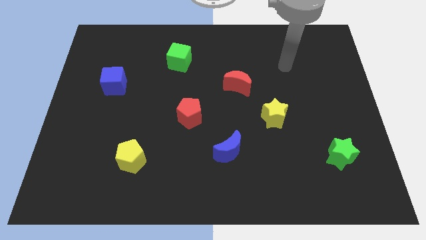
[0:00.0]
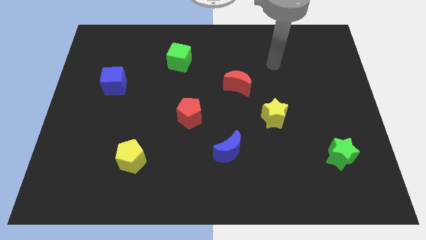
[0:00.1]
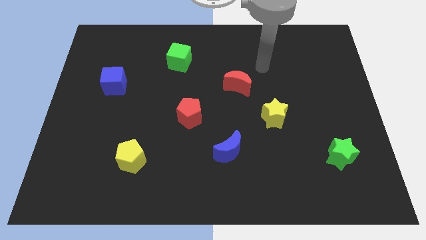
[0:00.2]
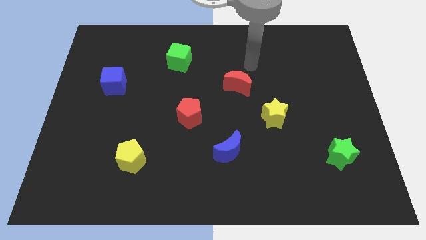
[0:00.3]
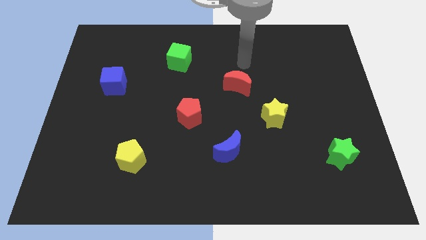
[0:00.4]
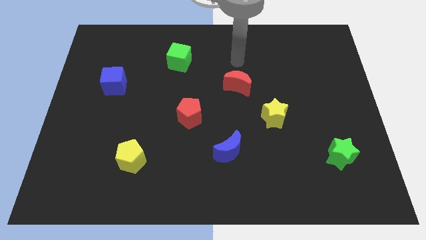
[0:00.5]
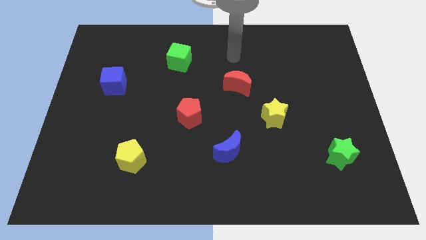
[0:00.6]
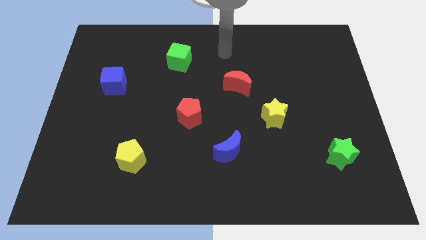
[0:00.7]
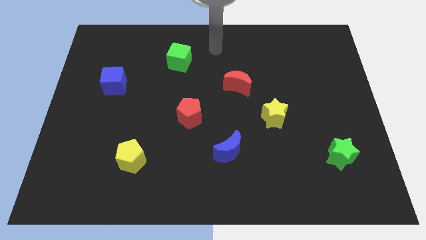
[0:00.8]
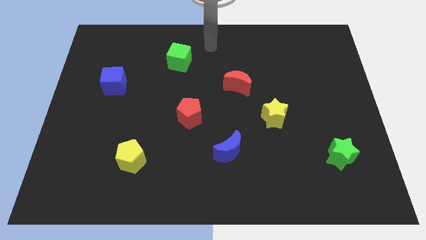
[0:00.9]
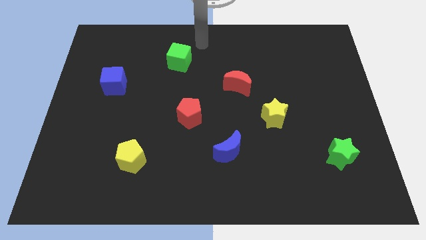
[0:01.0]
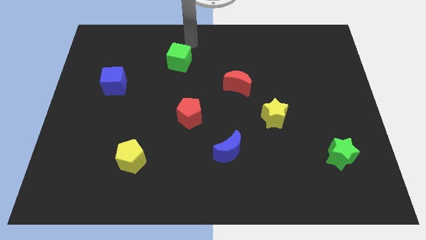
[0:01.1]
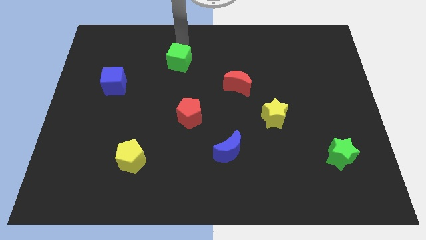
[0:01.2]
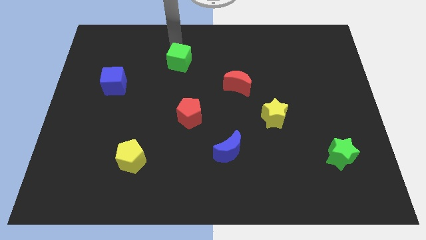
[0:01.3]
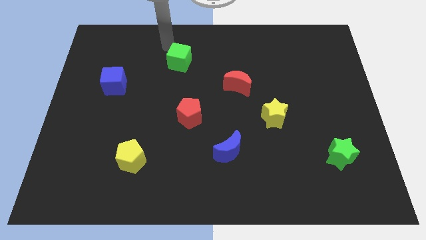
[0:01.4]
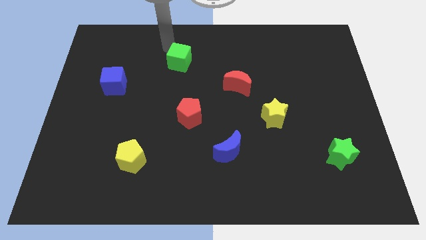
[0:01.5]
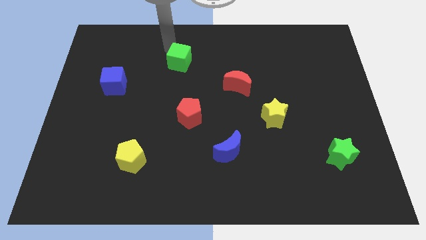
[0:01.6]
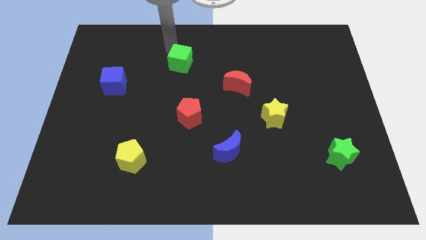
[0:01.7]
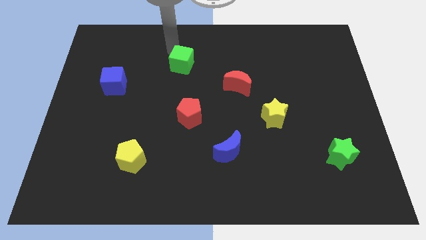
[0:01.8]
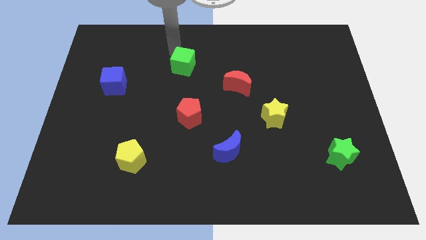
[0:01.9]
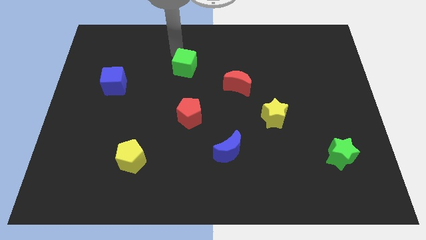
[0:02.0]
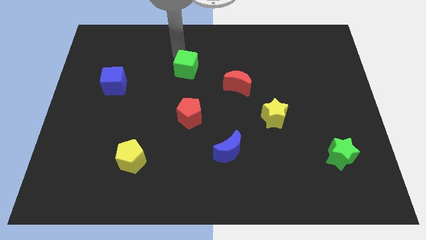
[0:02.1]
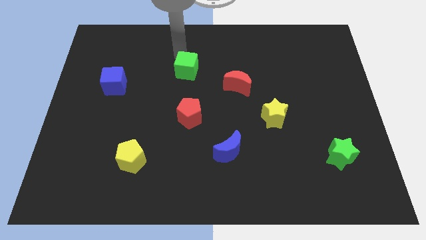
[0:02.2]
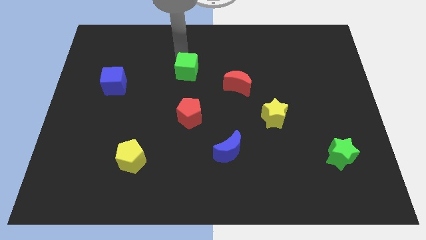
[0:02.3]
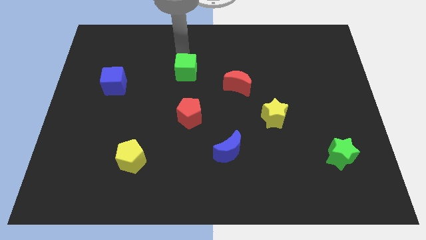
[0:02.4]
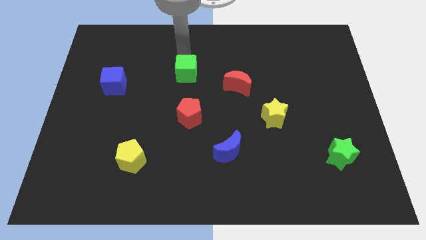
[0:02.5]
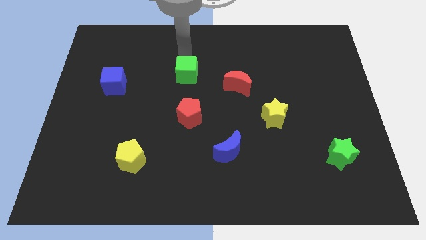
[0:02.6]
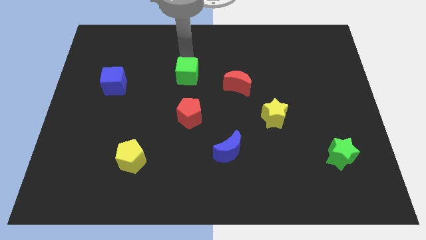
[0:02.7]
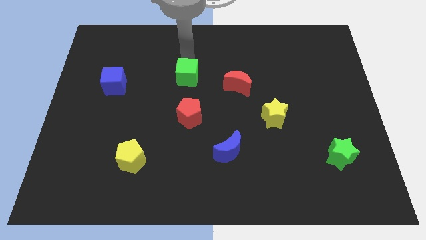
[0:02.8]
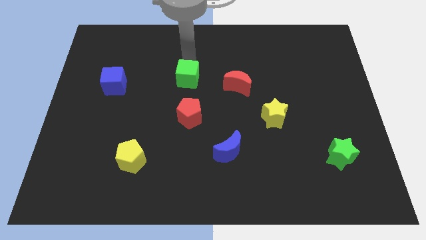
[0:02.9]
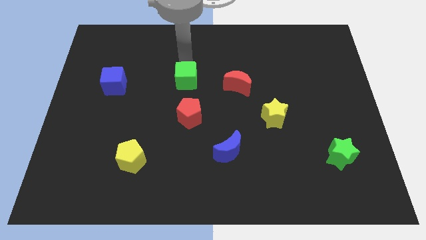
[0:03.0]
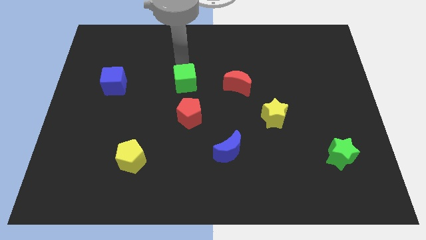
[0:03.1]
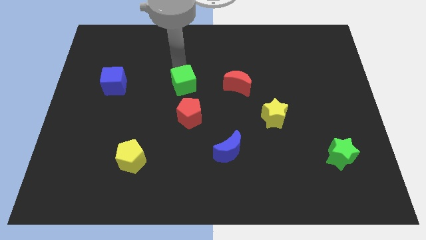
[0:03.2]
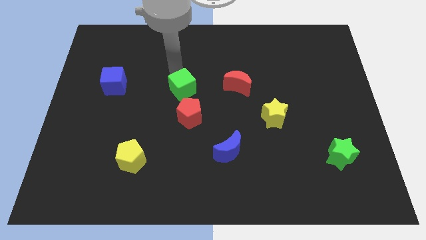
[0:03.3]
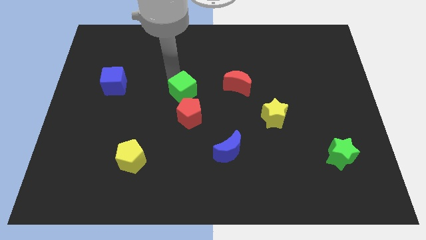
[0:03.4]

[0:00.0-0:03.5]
slightly slide the green cube downwards and right diagonally

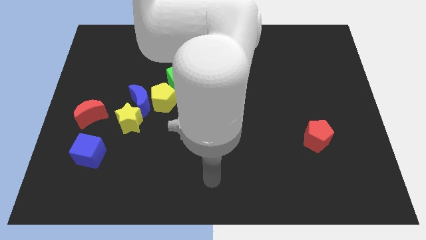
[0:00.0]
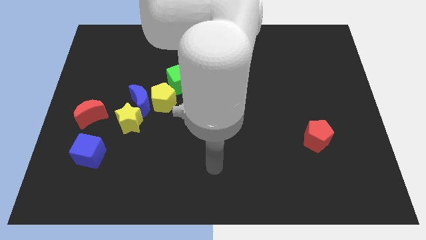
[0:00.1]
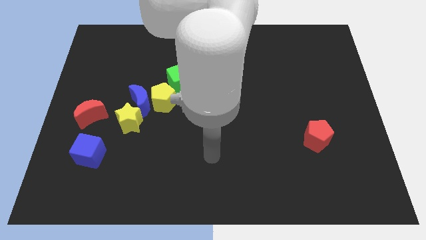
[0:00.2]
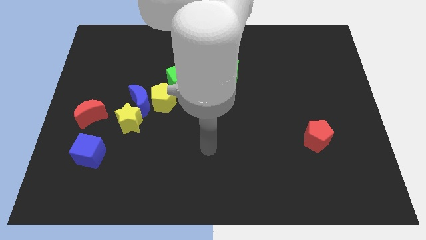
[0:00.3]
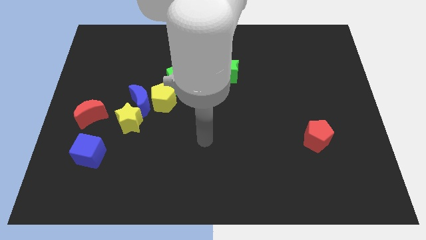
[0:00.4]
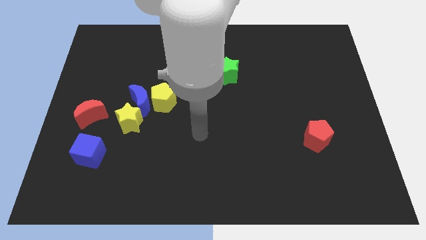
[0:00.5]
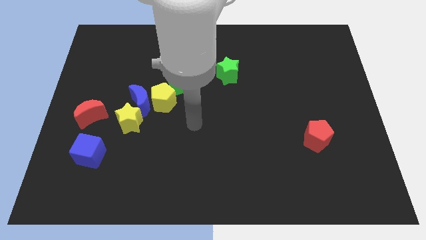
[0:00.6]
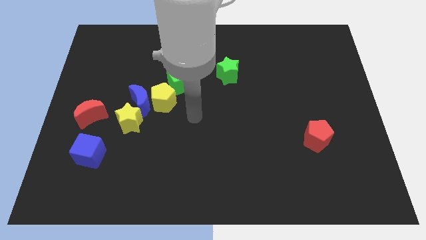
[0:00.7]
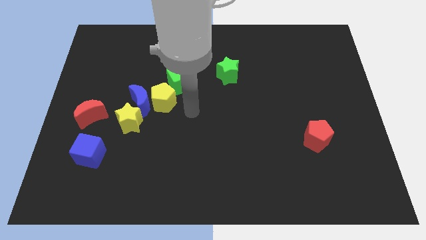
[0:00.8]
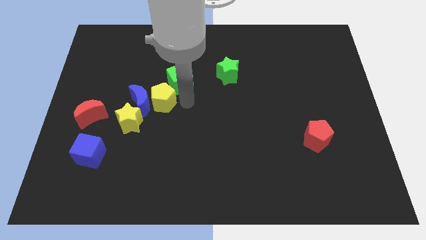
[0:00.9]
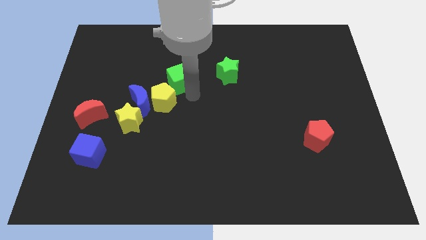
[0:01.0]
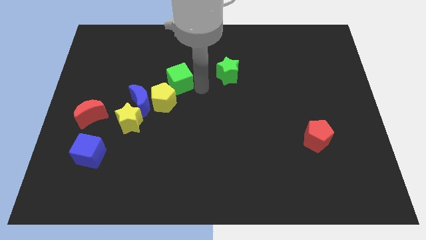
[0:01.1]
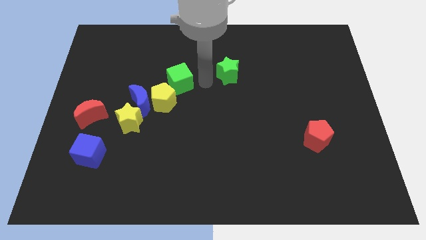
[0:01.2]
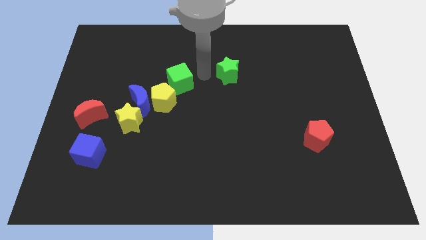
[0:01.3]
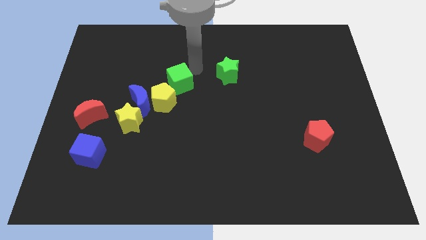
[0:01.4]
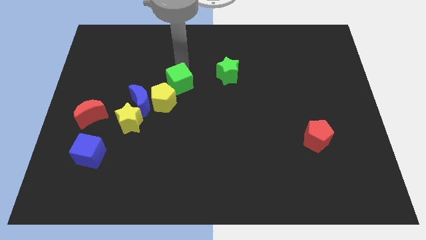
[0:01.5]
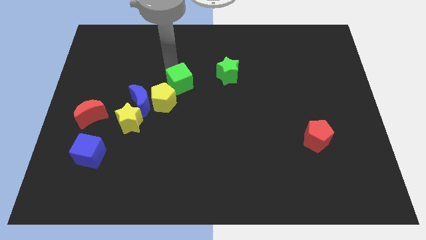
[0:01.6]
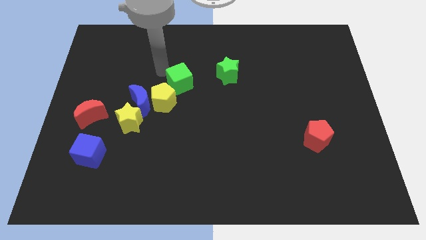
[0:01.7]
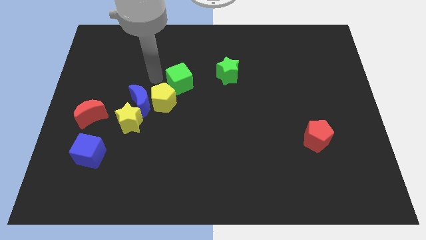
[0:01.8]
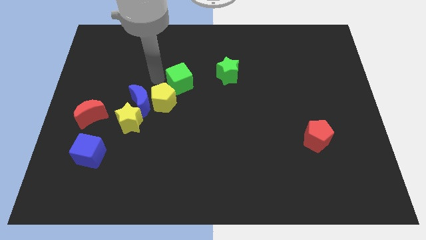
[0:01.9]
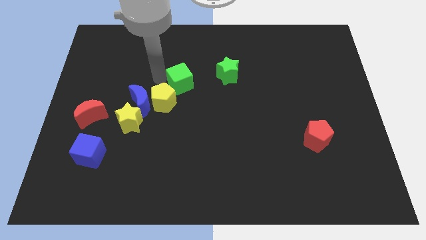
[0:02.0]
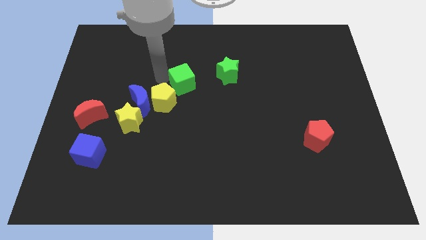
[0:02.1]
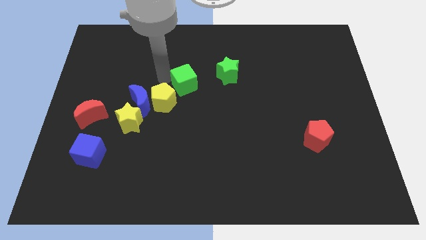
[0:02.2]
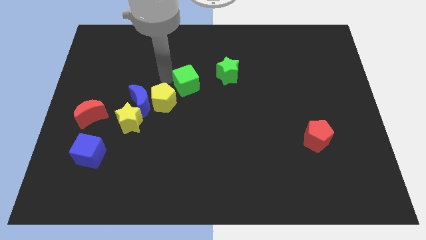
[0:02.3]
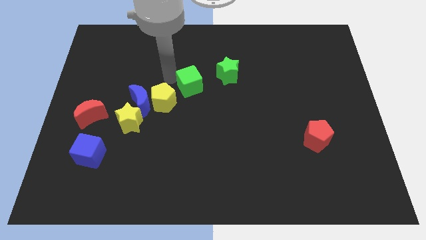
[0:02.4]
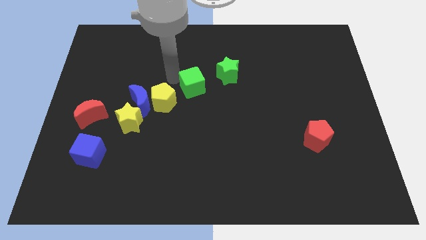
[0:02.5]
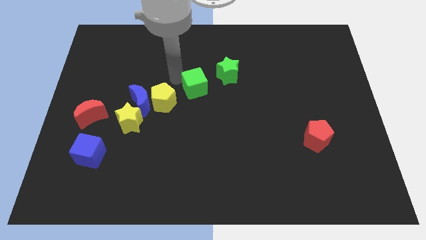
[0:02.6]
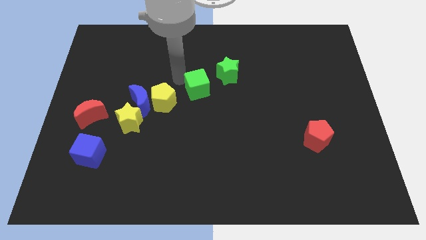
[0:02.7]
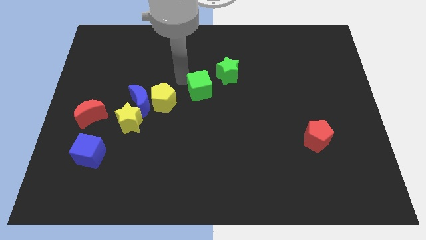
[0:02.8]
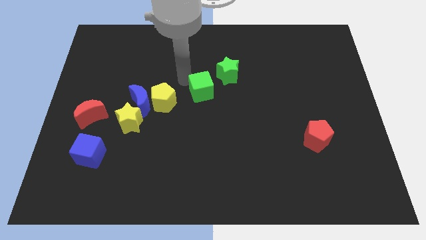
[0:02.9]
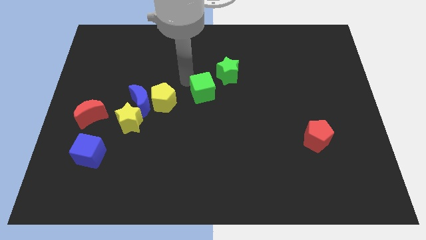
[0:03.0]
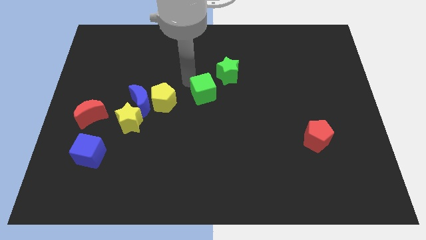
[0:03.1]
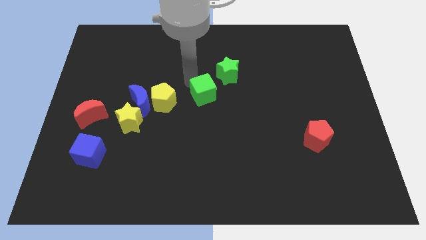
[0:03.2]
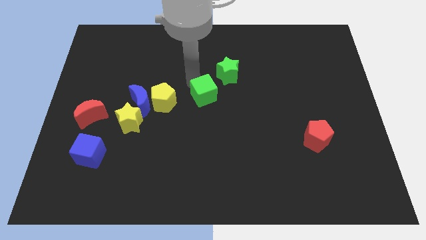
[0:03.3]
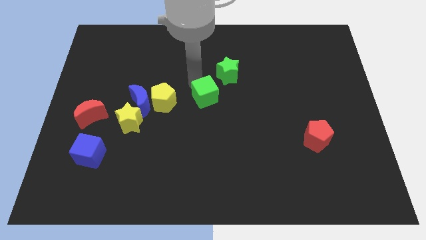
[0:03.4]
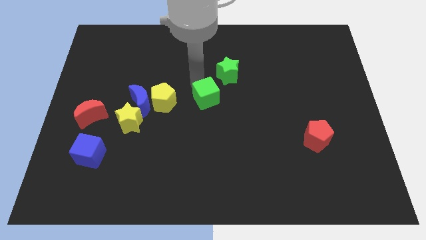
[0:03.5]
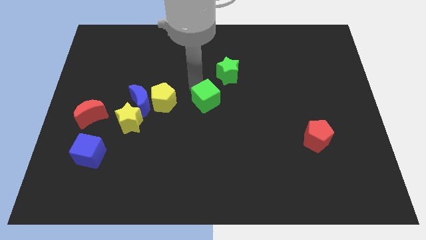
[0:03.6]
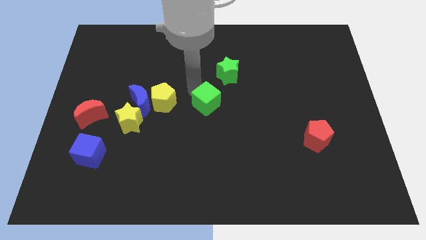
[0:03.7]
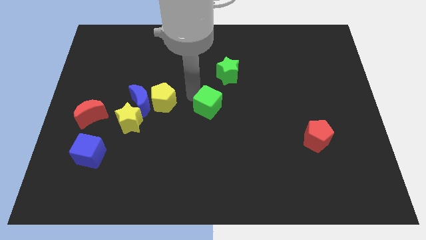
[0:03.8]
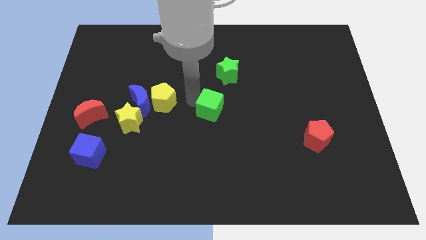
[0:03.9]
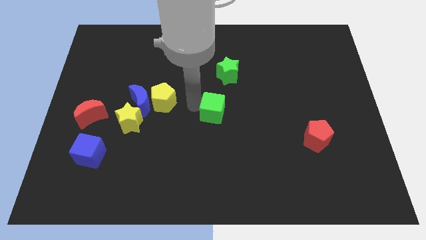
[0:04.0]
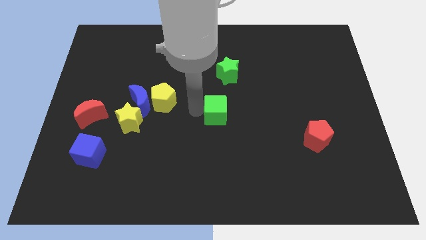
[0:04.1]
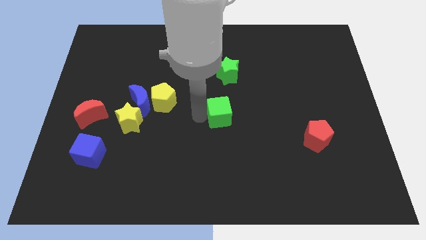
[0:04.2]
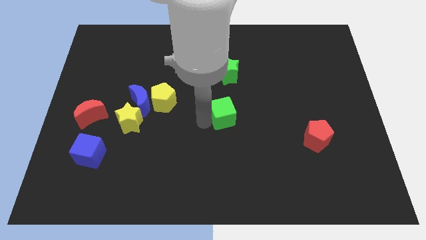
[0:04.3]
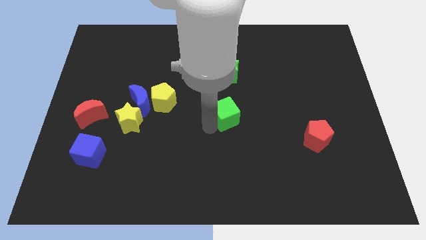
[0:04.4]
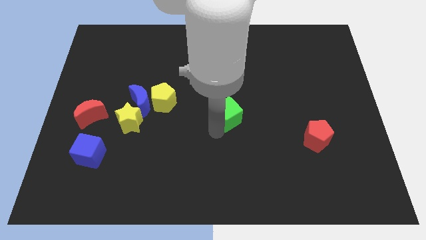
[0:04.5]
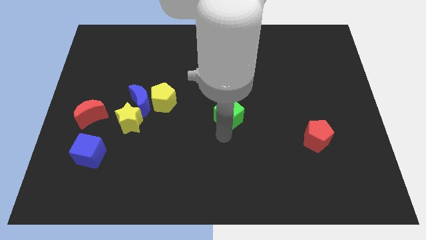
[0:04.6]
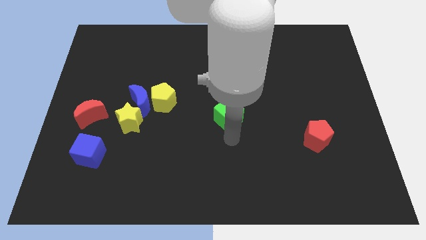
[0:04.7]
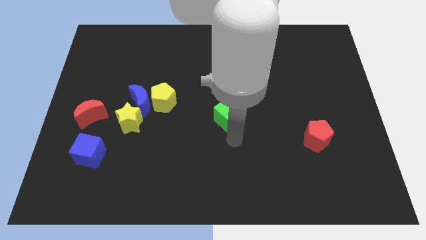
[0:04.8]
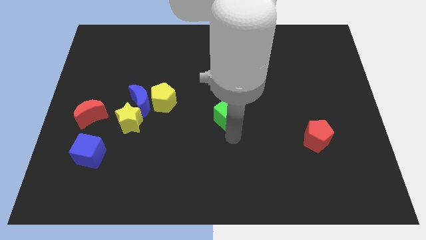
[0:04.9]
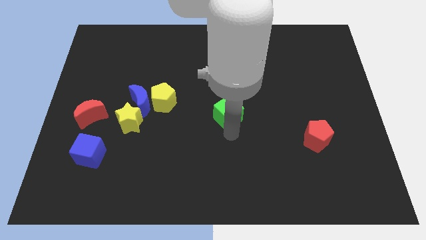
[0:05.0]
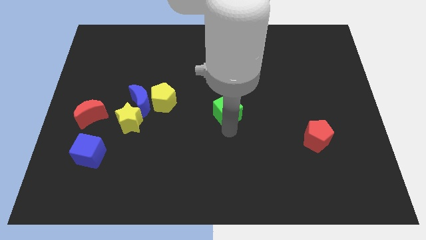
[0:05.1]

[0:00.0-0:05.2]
slide the green cube a little right
